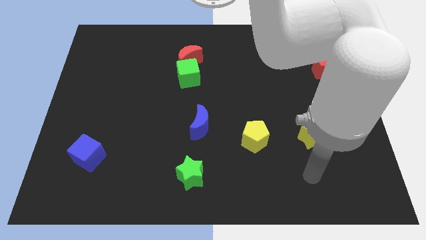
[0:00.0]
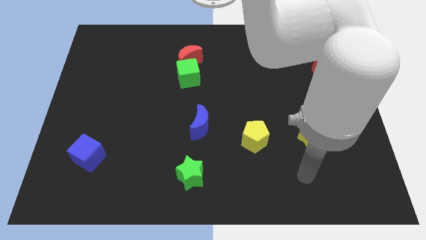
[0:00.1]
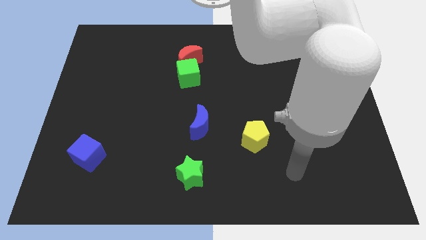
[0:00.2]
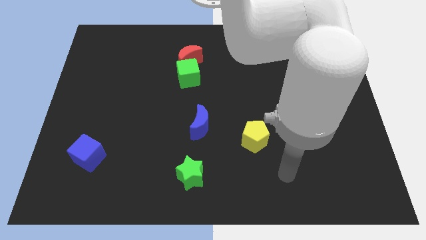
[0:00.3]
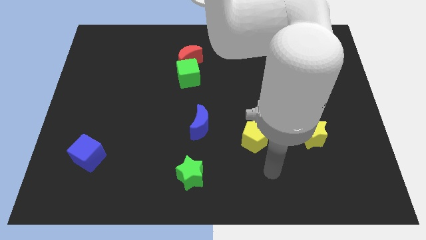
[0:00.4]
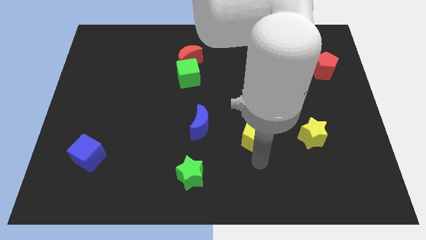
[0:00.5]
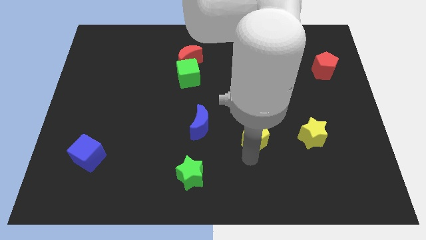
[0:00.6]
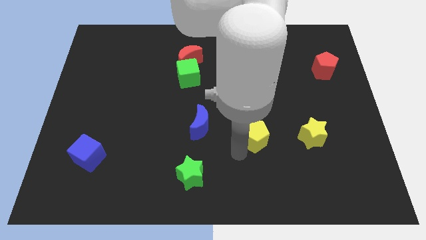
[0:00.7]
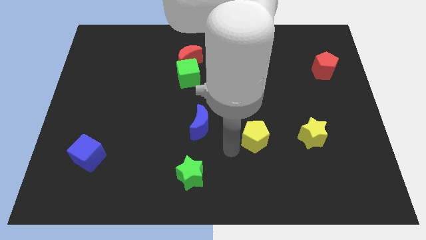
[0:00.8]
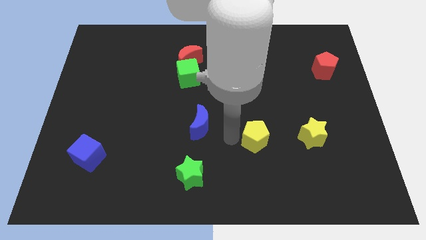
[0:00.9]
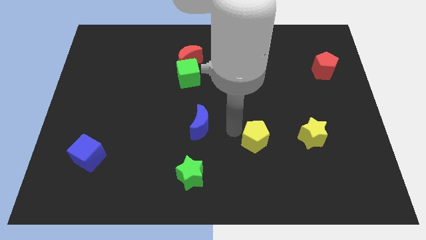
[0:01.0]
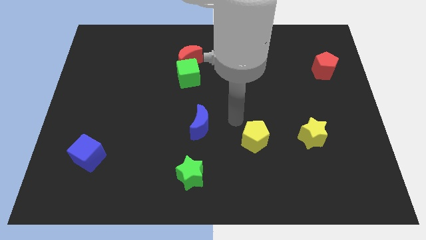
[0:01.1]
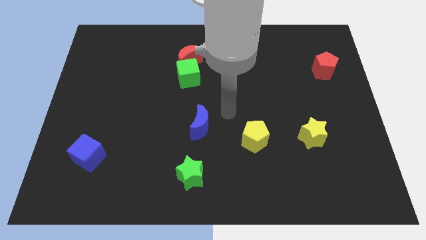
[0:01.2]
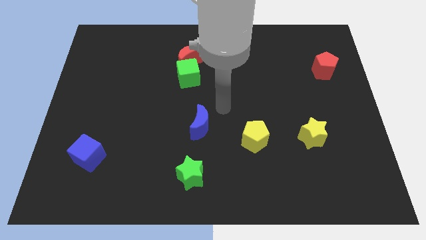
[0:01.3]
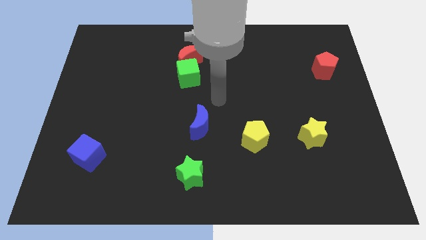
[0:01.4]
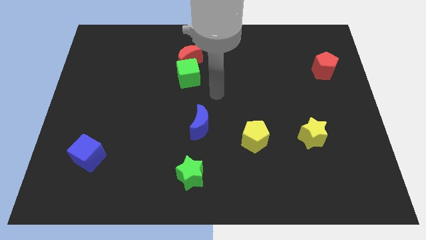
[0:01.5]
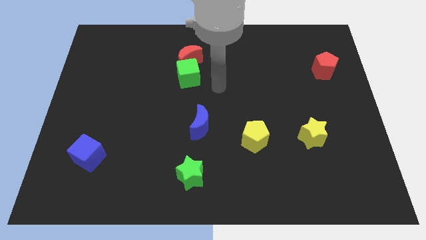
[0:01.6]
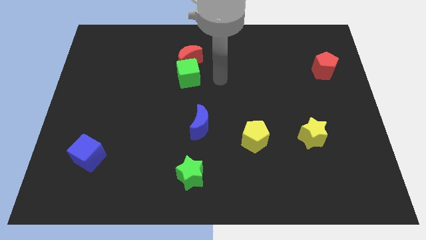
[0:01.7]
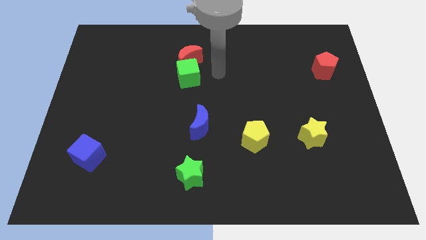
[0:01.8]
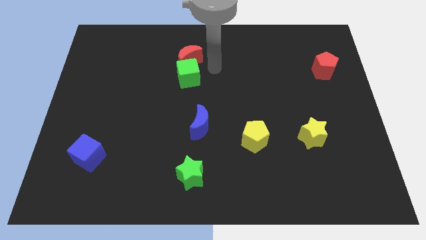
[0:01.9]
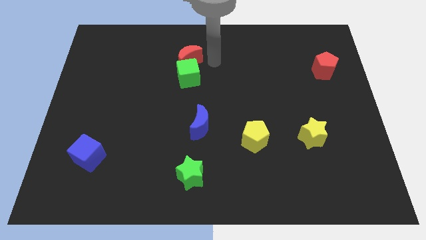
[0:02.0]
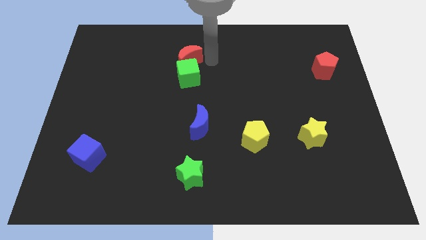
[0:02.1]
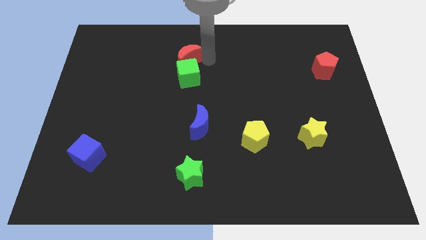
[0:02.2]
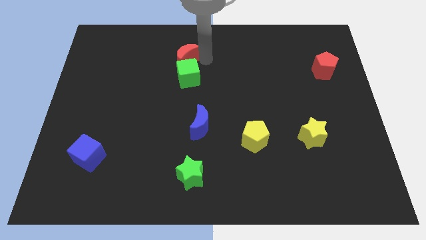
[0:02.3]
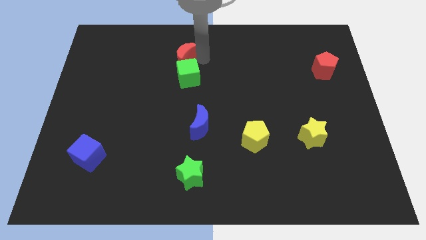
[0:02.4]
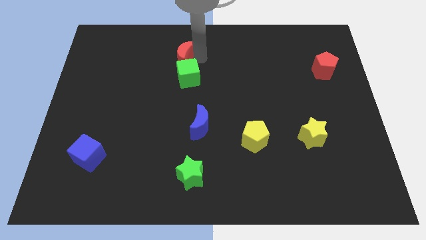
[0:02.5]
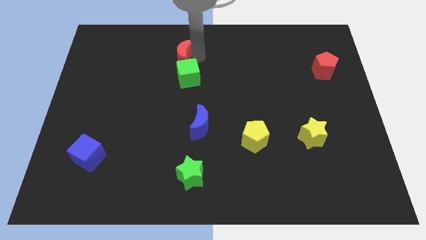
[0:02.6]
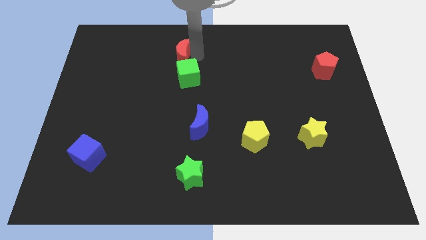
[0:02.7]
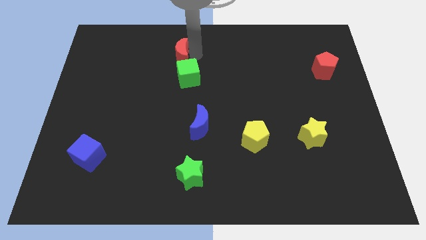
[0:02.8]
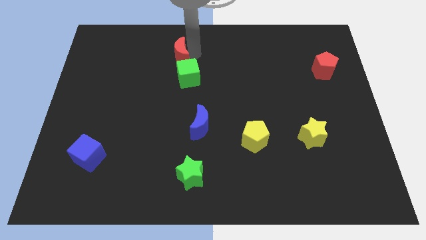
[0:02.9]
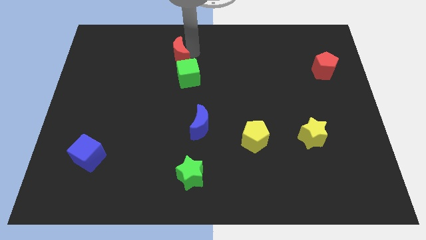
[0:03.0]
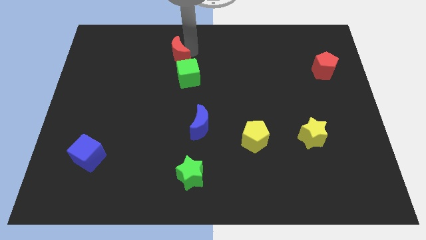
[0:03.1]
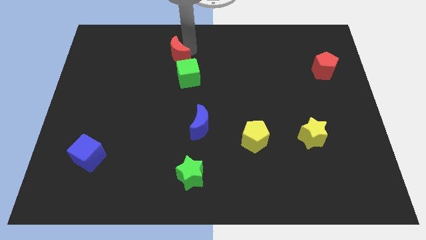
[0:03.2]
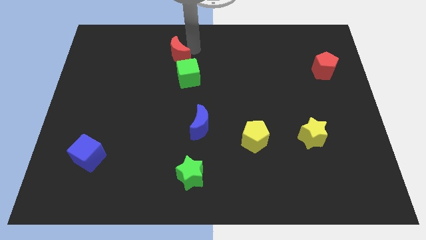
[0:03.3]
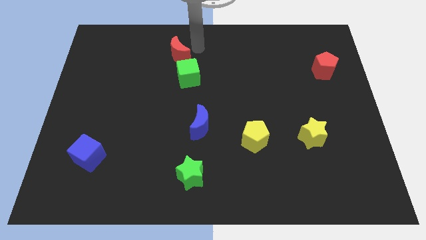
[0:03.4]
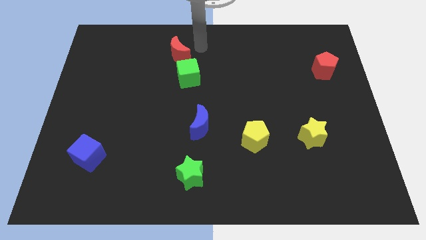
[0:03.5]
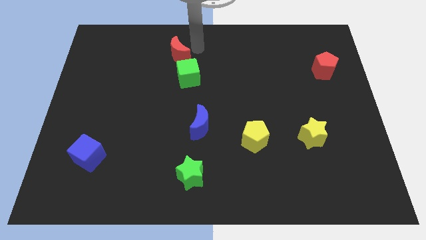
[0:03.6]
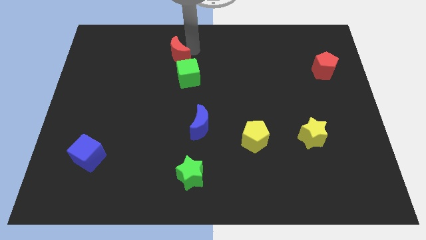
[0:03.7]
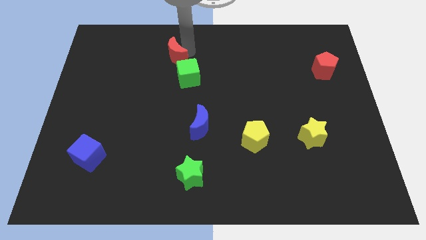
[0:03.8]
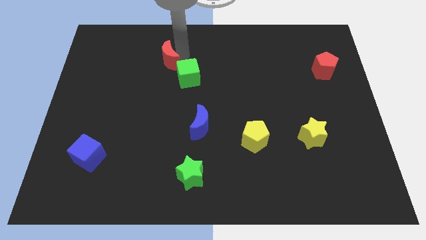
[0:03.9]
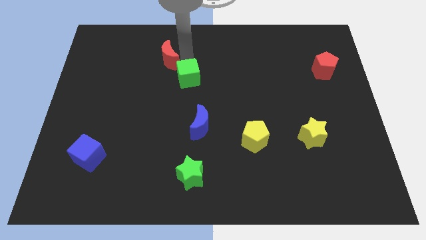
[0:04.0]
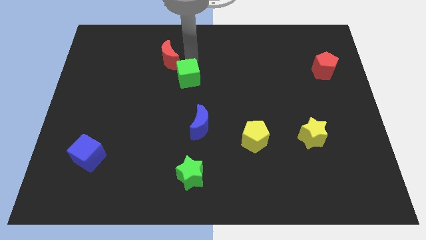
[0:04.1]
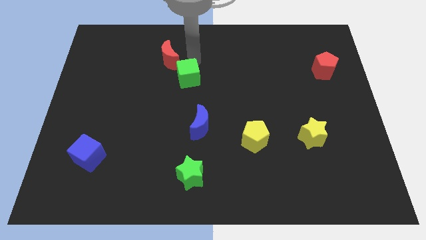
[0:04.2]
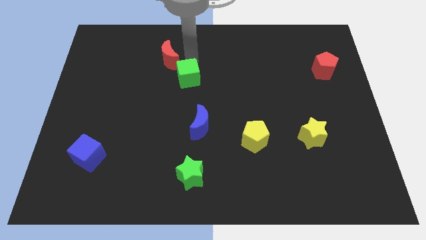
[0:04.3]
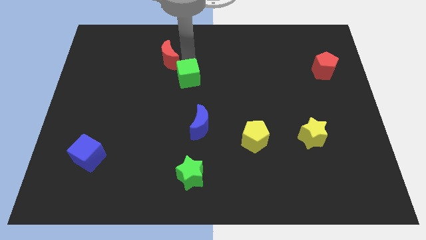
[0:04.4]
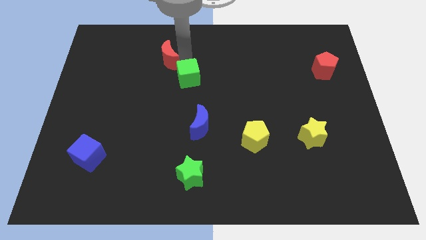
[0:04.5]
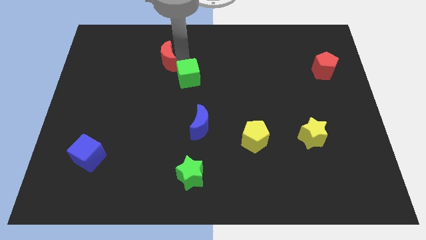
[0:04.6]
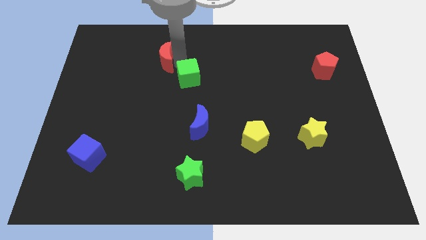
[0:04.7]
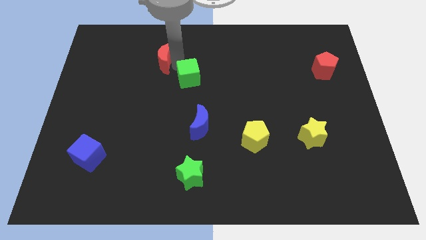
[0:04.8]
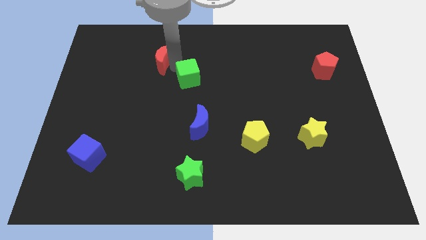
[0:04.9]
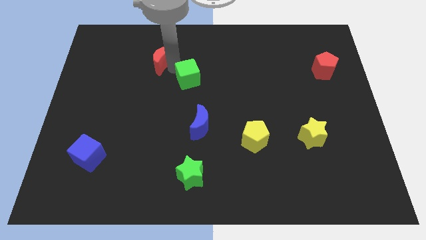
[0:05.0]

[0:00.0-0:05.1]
slide the red moon left somewhat

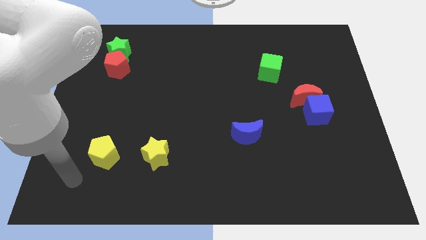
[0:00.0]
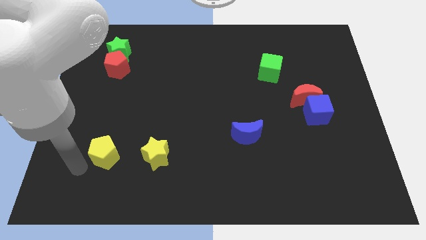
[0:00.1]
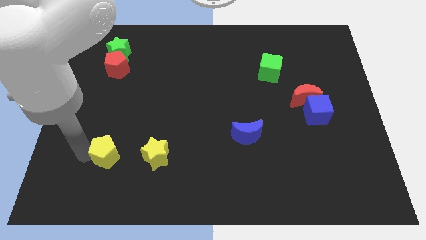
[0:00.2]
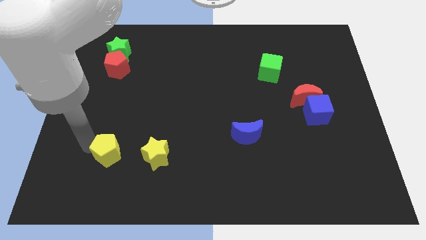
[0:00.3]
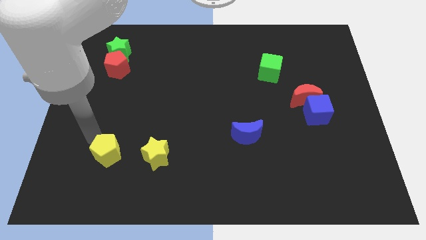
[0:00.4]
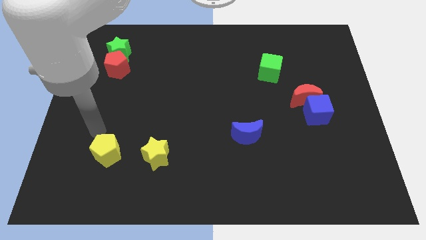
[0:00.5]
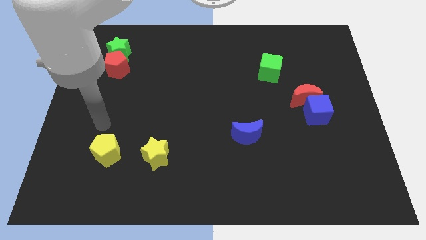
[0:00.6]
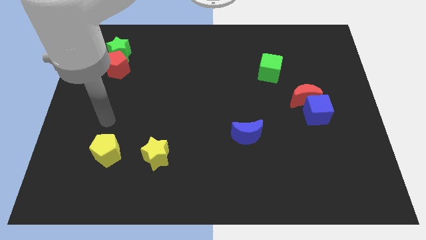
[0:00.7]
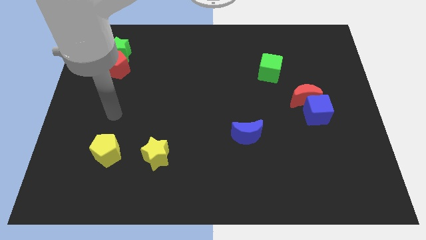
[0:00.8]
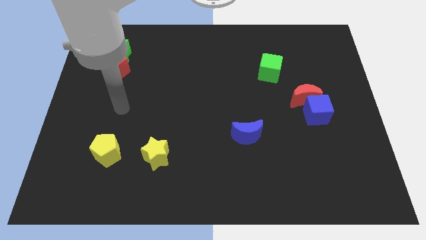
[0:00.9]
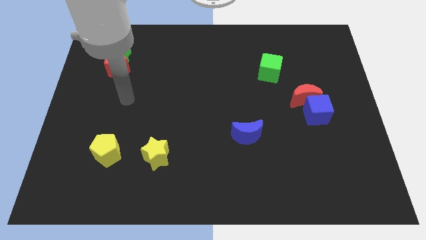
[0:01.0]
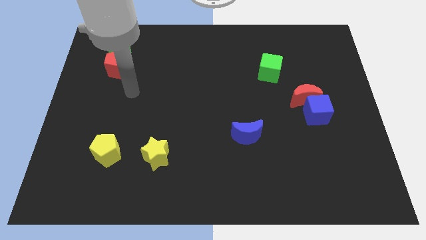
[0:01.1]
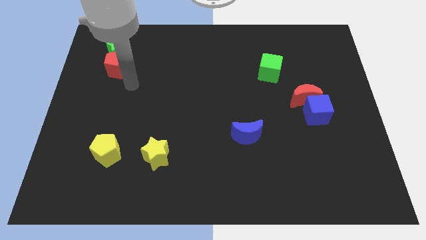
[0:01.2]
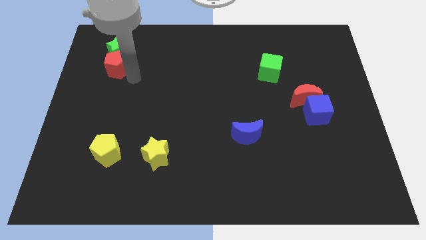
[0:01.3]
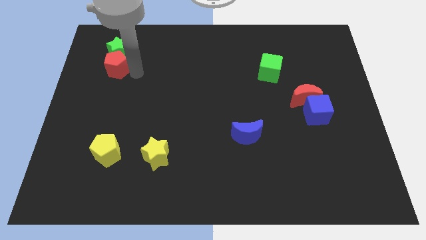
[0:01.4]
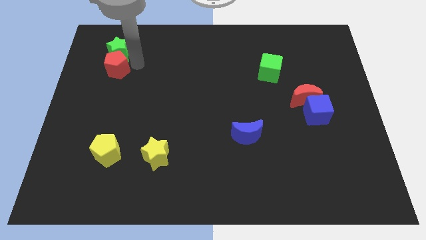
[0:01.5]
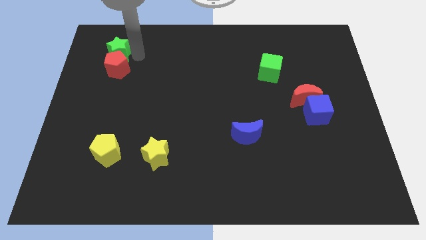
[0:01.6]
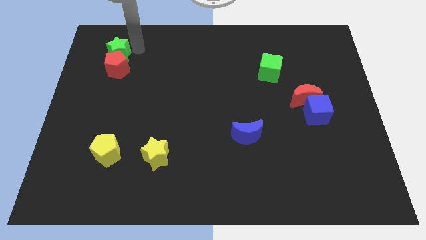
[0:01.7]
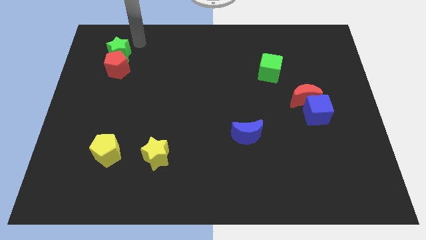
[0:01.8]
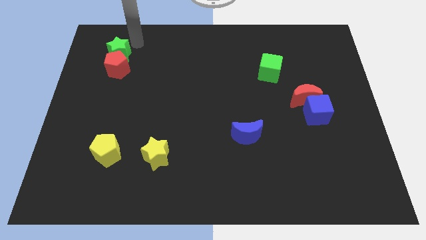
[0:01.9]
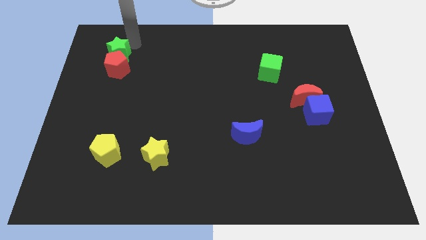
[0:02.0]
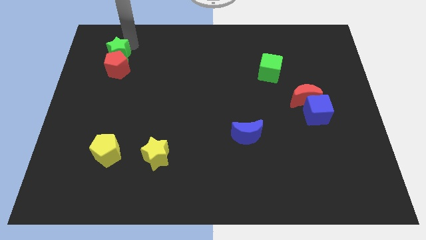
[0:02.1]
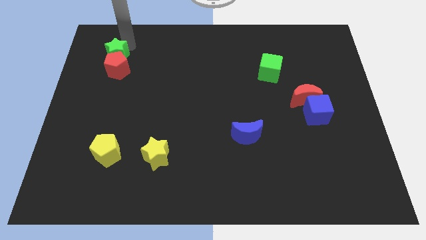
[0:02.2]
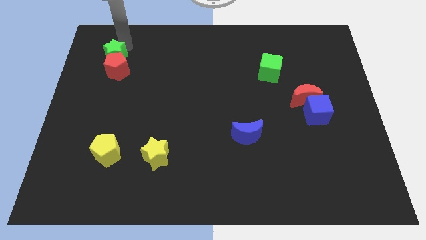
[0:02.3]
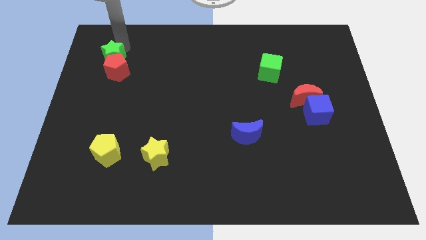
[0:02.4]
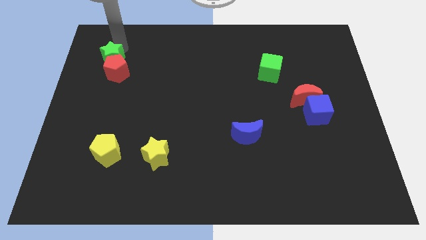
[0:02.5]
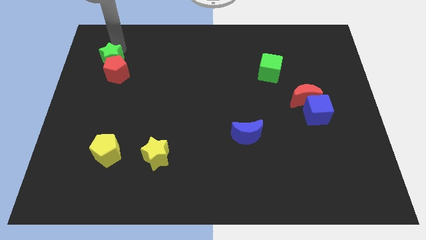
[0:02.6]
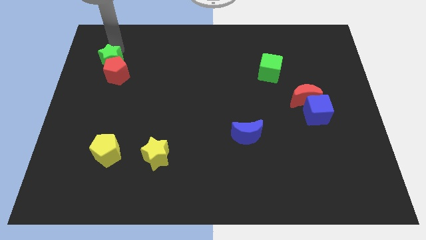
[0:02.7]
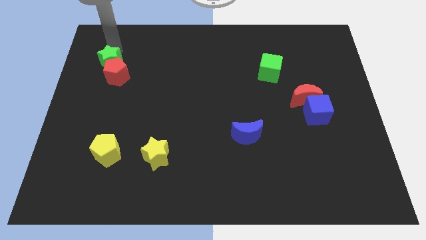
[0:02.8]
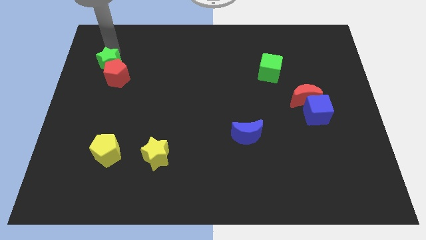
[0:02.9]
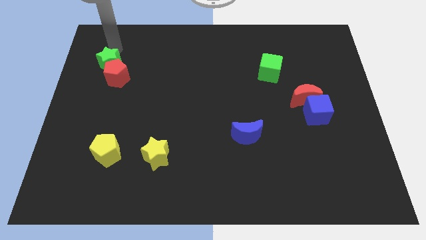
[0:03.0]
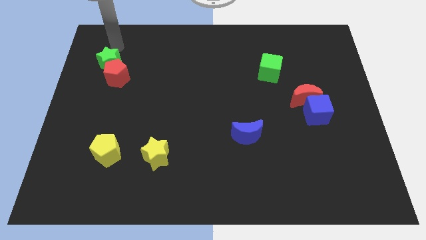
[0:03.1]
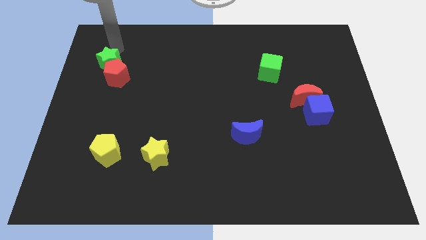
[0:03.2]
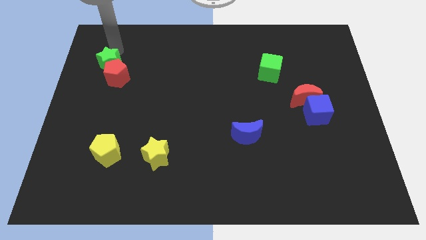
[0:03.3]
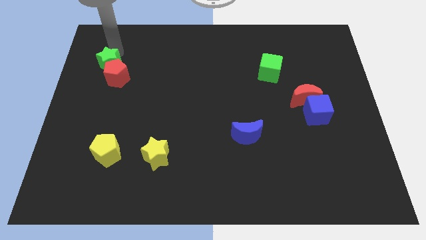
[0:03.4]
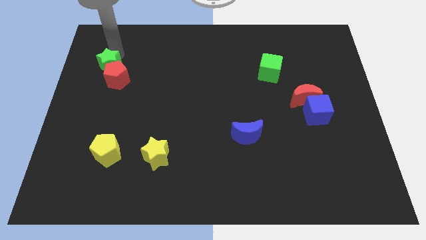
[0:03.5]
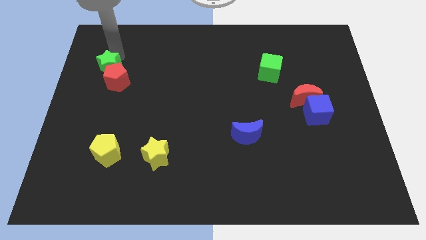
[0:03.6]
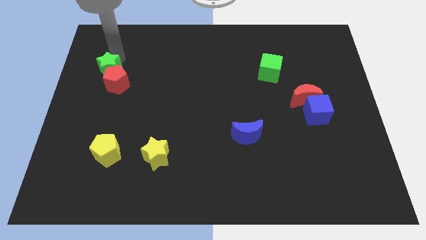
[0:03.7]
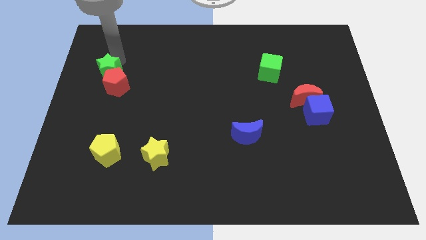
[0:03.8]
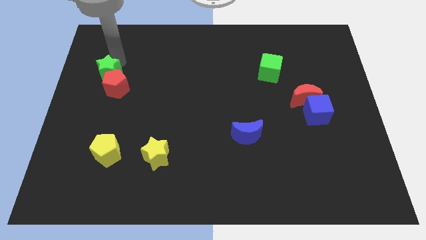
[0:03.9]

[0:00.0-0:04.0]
slide the green star downwards a bit
